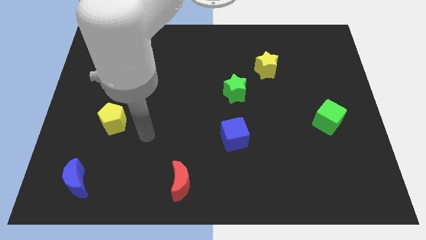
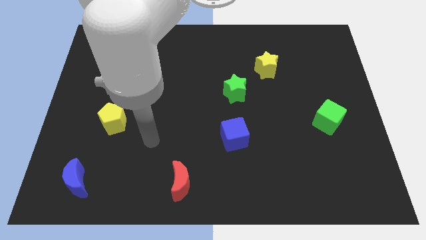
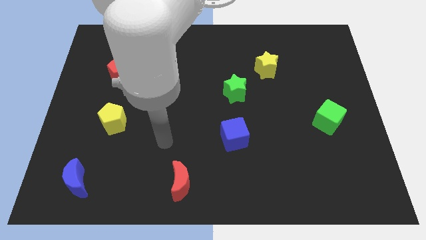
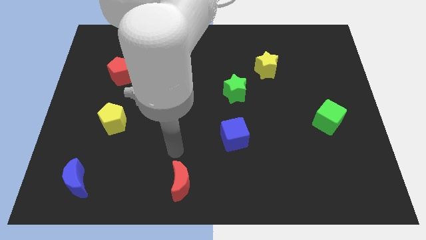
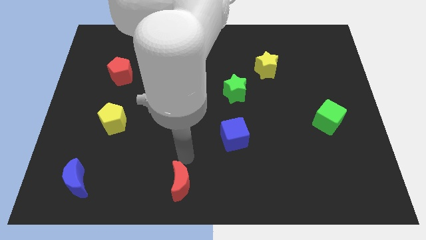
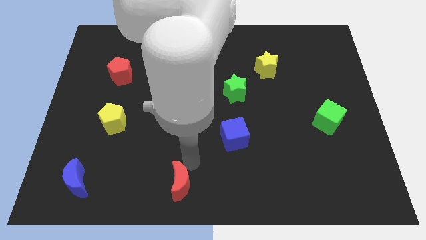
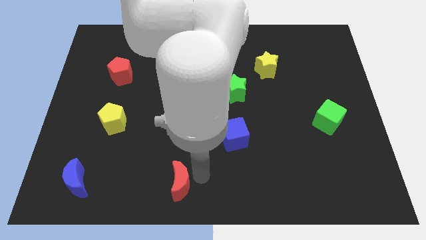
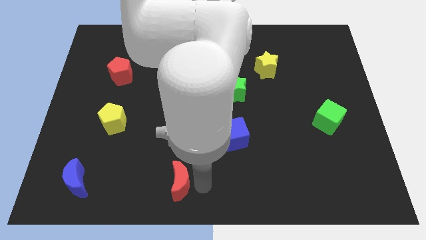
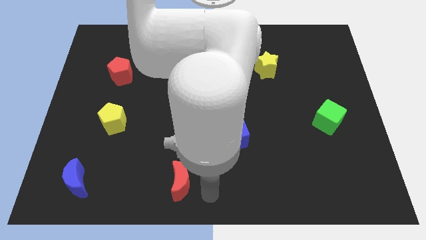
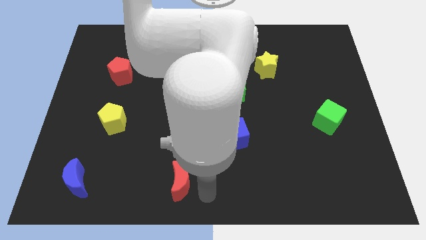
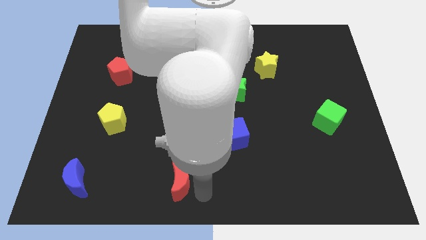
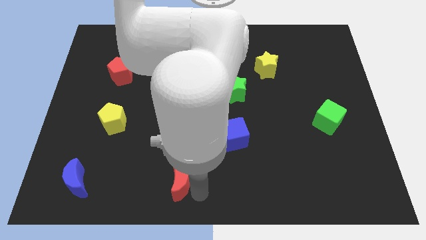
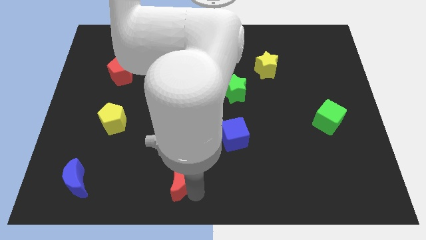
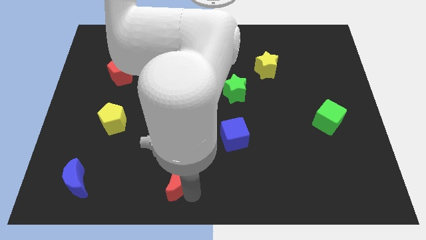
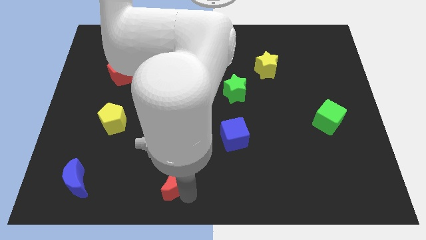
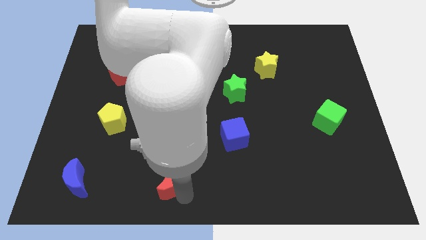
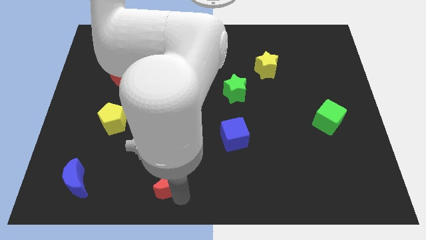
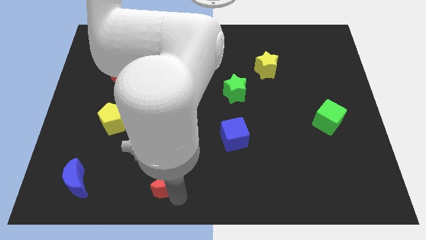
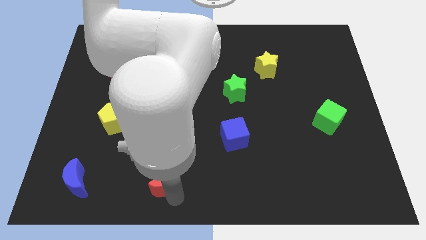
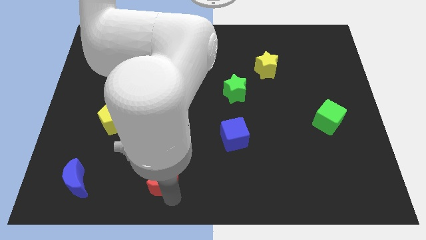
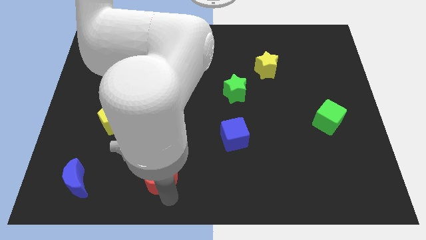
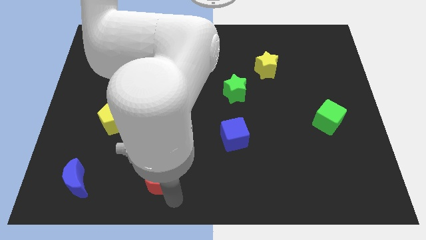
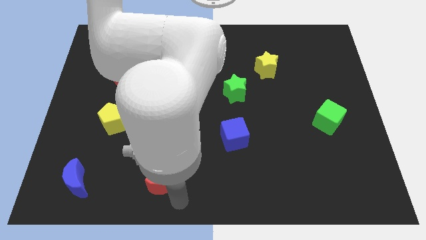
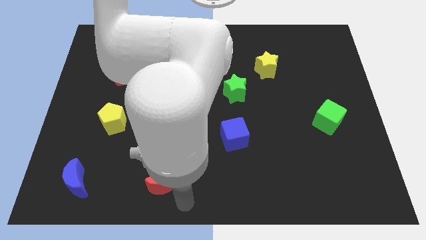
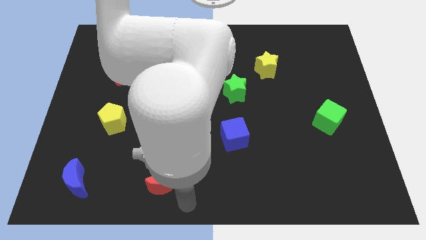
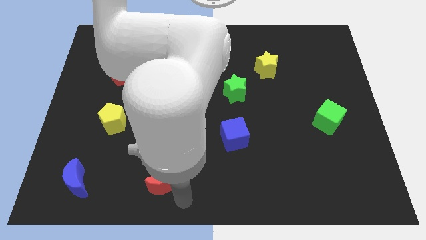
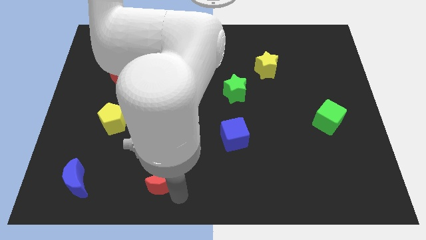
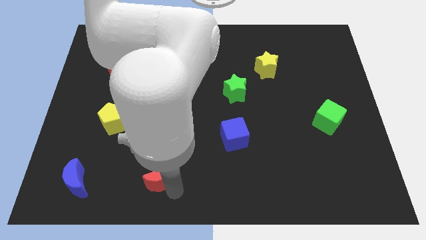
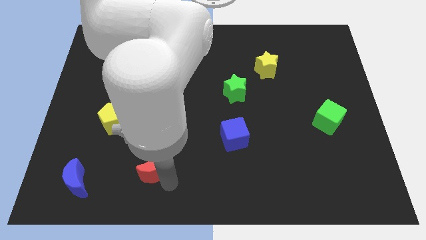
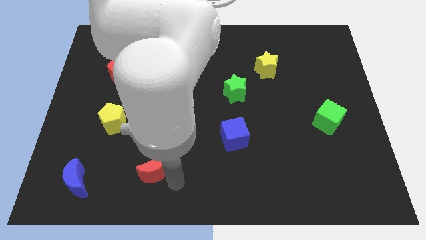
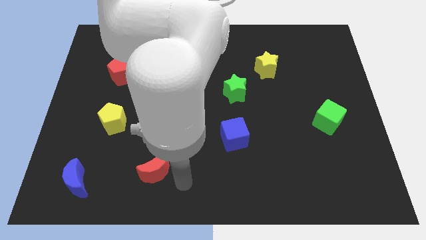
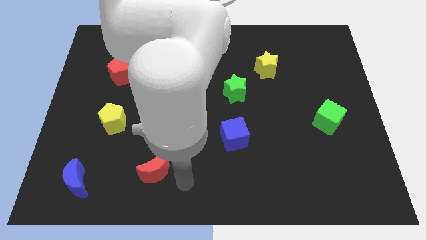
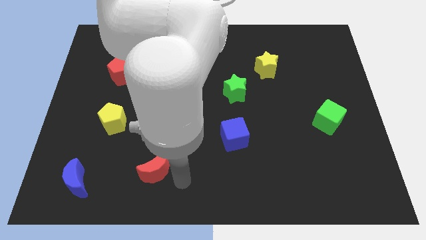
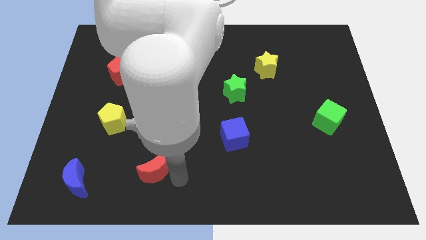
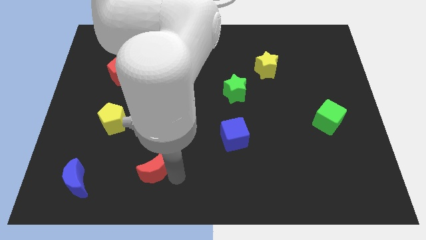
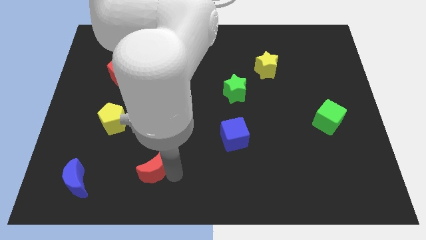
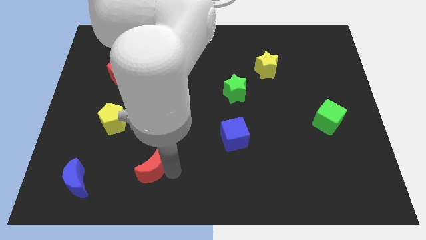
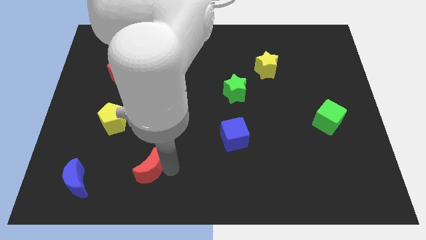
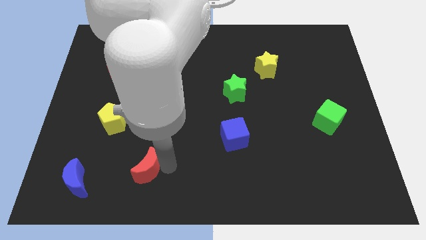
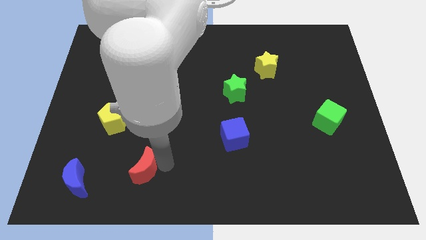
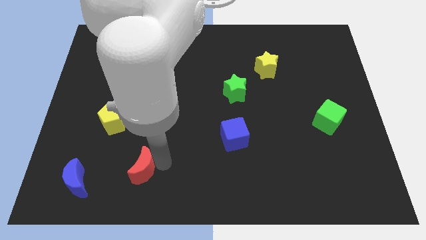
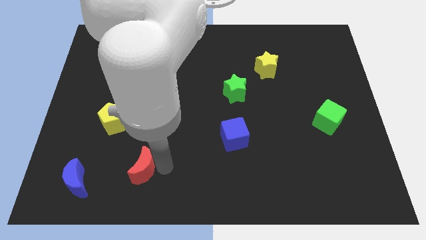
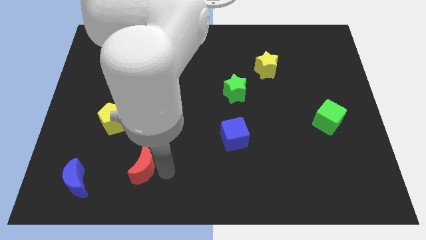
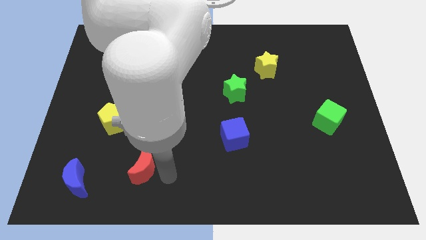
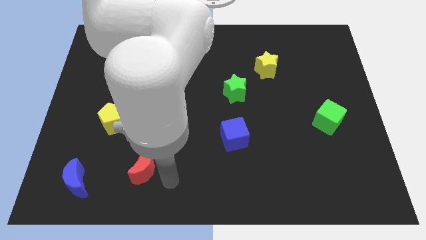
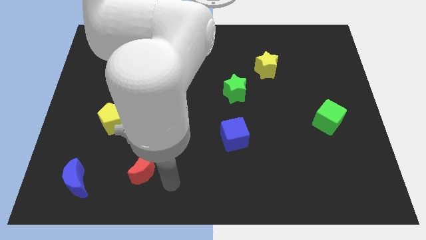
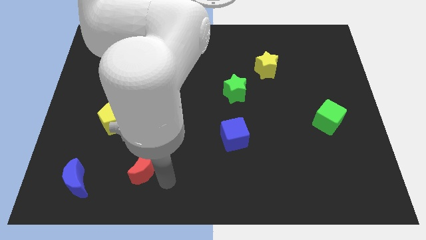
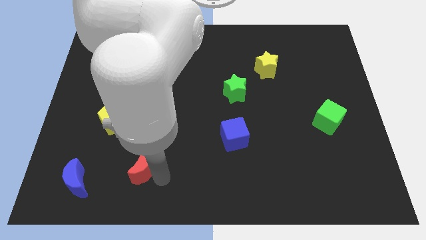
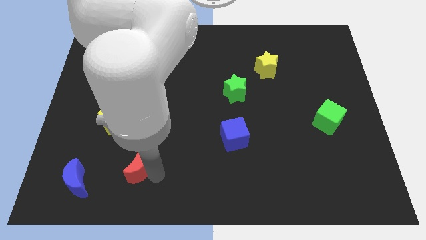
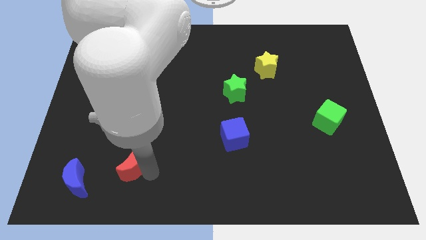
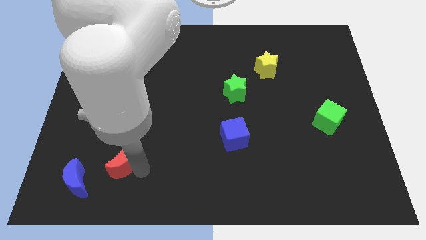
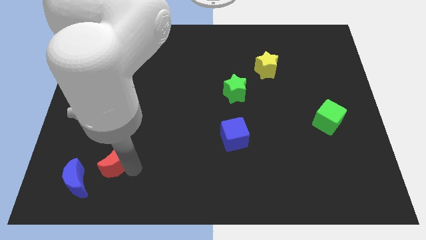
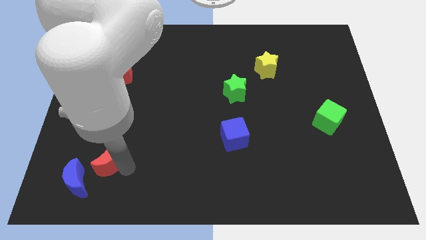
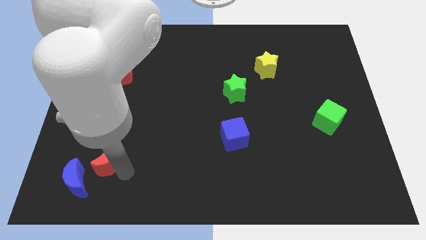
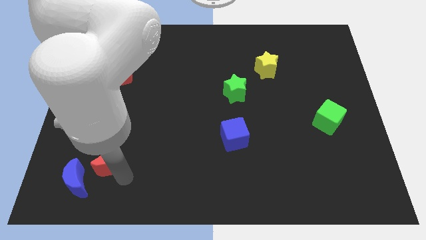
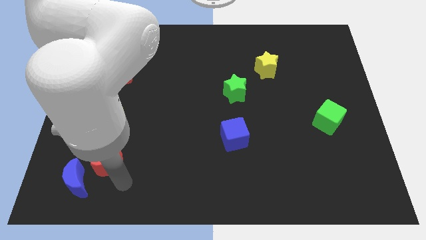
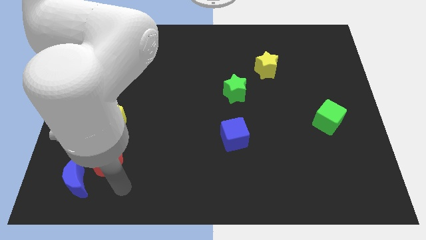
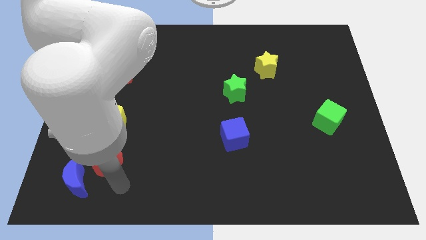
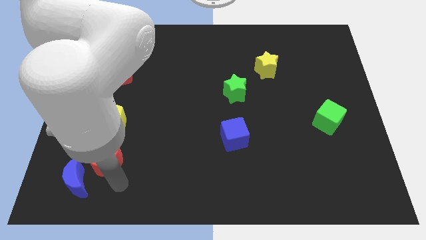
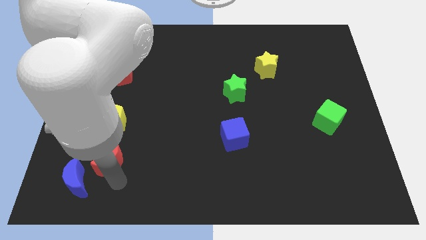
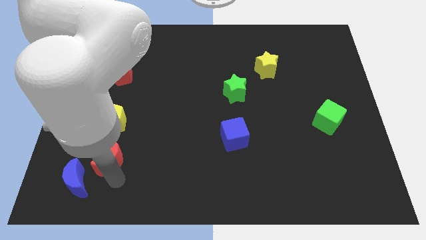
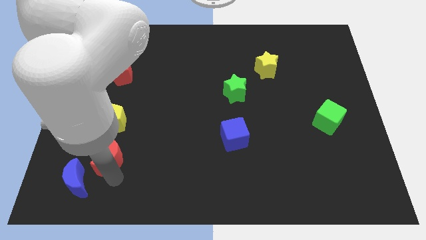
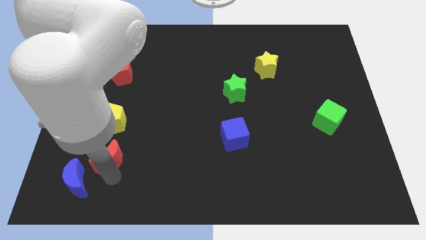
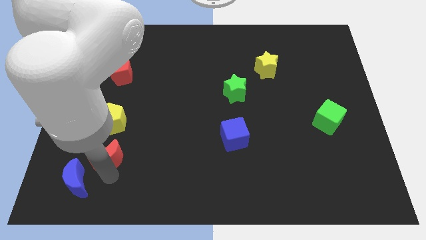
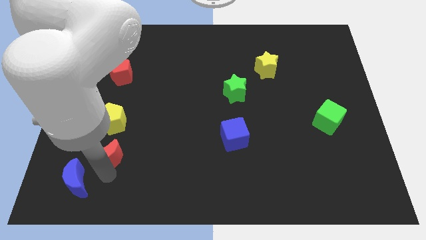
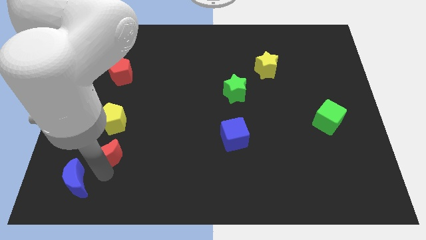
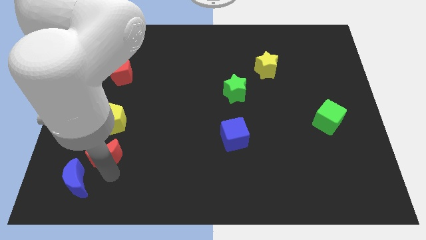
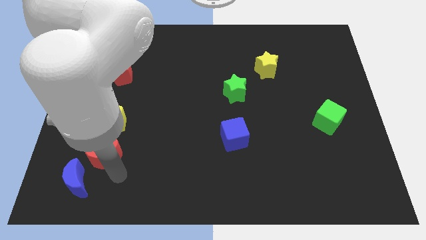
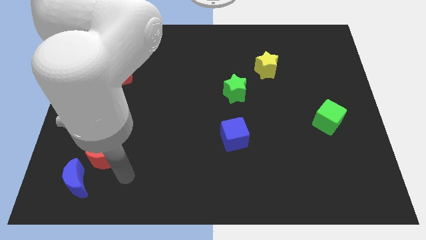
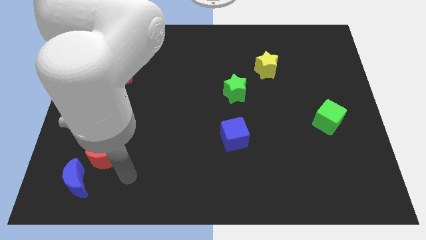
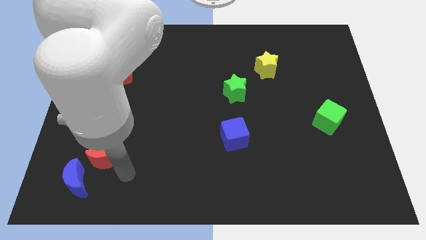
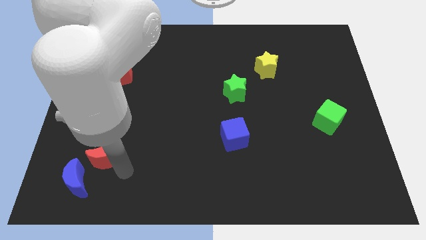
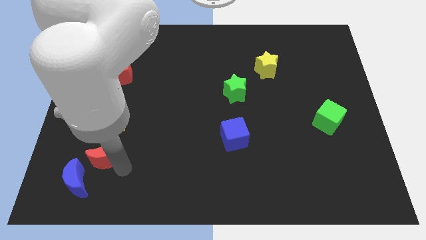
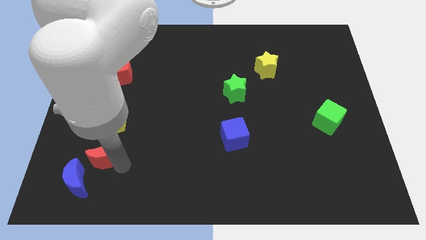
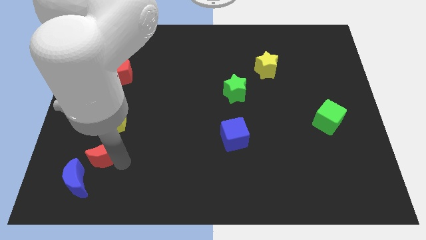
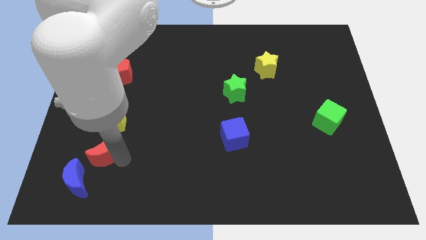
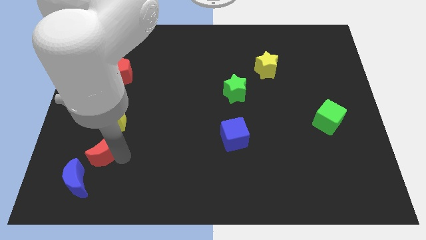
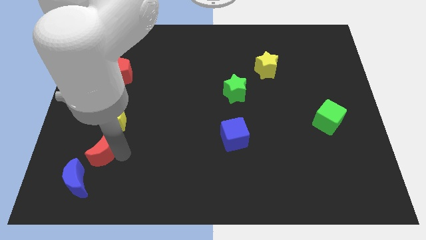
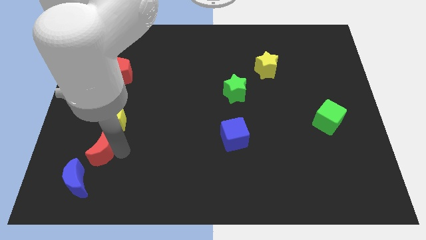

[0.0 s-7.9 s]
slide the red moon diagonally down and to the left of the yellow pentagon
